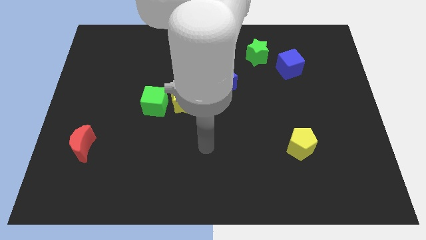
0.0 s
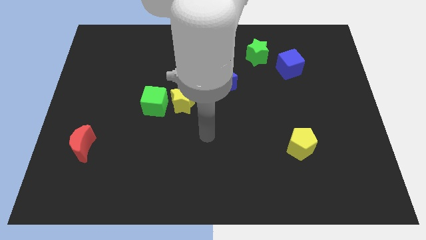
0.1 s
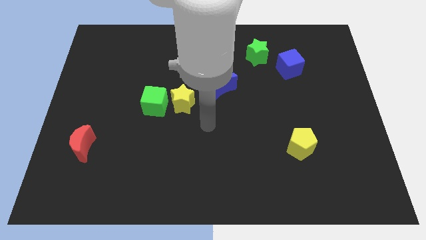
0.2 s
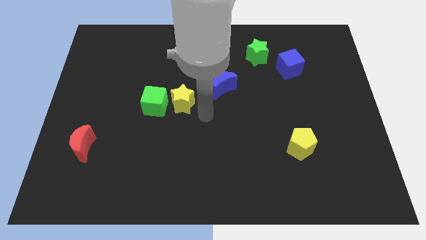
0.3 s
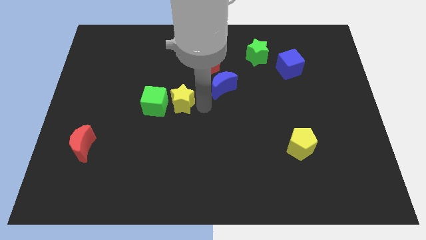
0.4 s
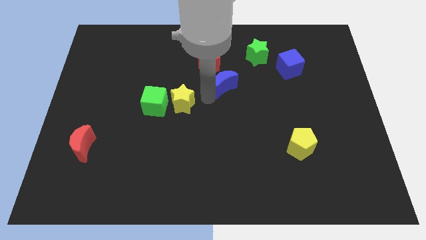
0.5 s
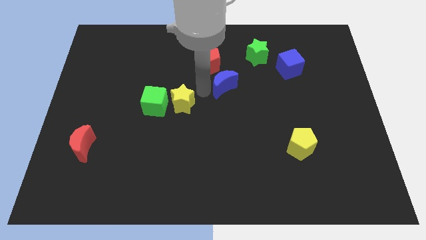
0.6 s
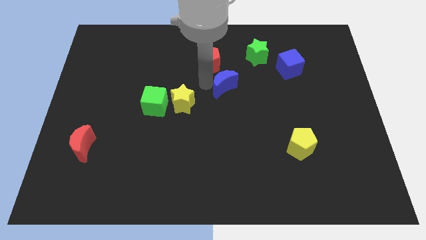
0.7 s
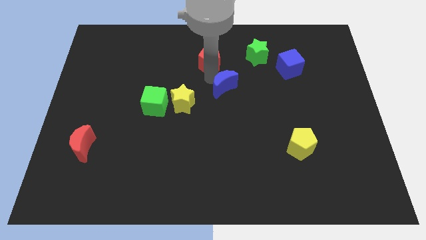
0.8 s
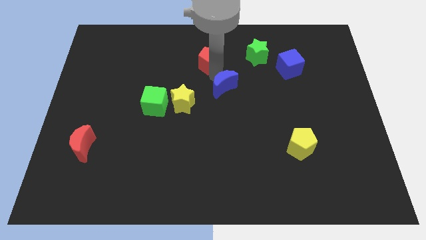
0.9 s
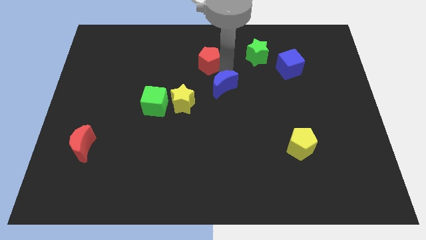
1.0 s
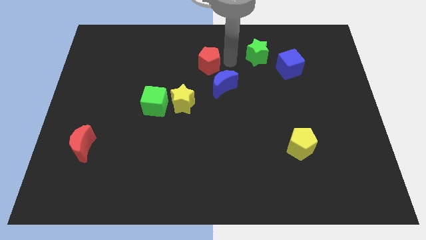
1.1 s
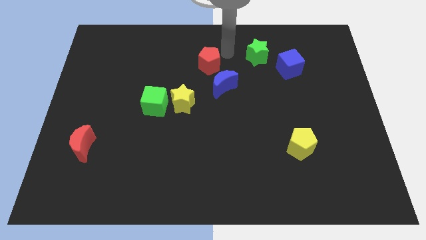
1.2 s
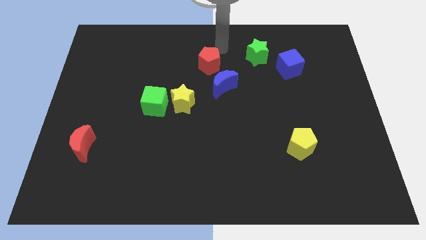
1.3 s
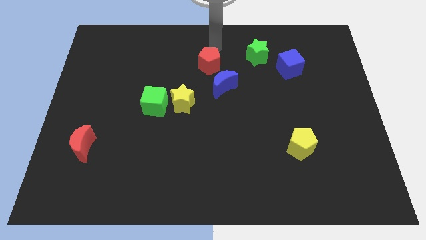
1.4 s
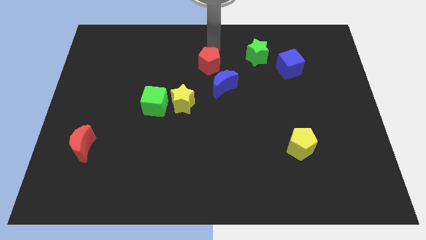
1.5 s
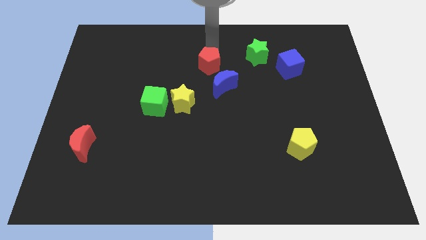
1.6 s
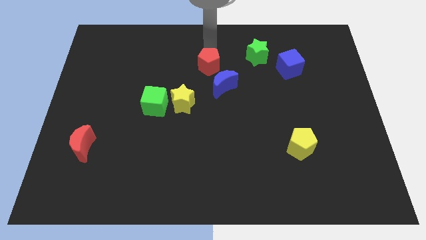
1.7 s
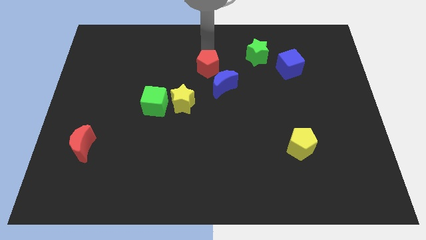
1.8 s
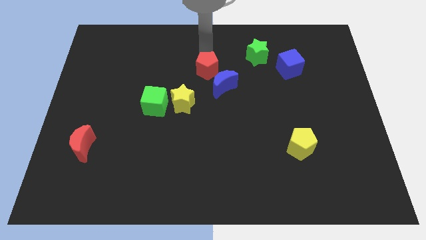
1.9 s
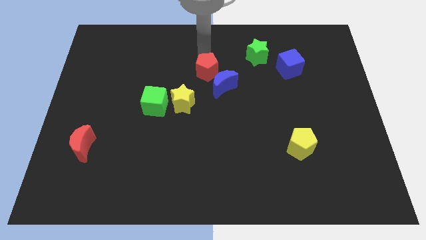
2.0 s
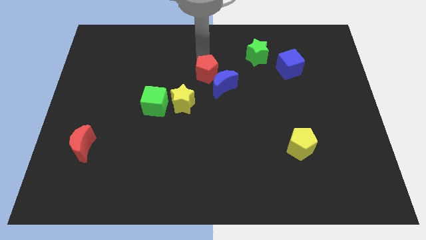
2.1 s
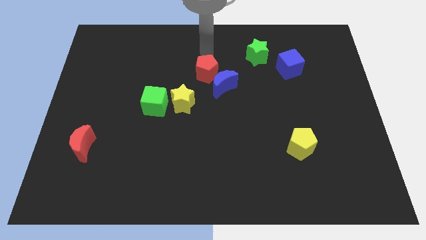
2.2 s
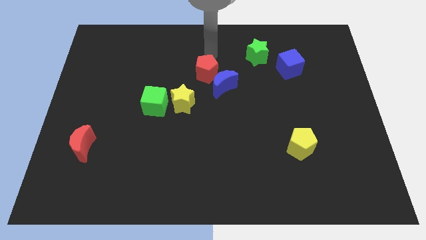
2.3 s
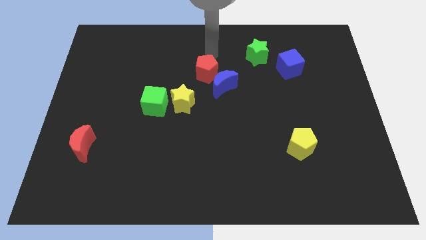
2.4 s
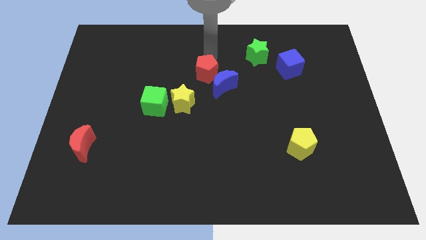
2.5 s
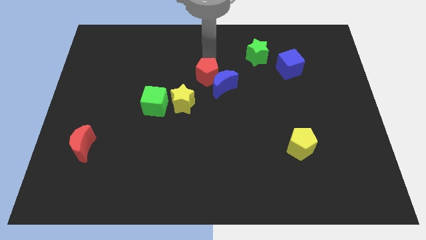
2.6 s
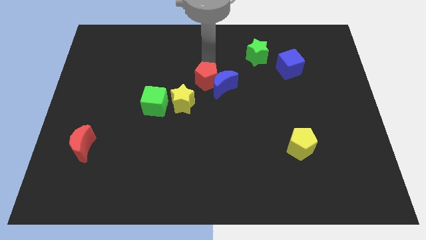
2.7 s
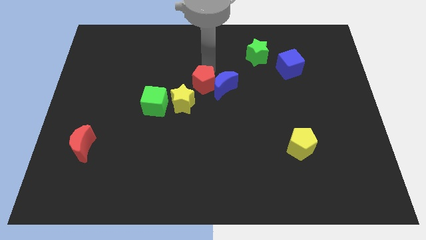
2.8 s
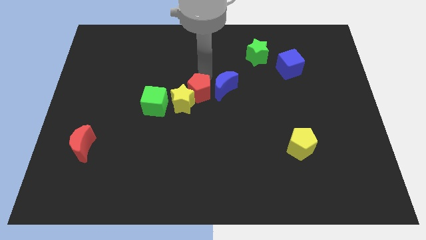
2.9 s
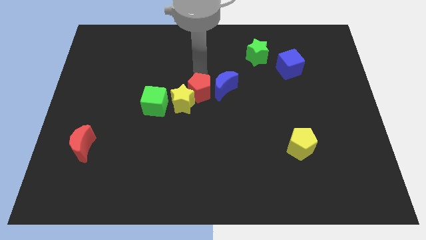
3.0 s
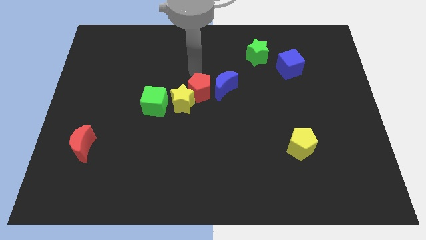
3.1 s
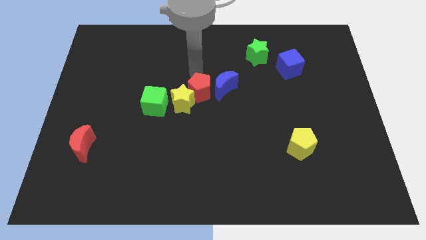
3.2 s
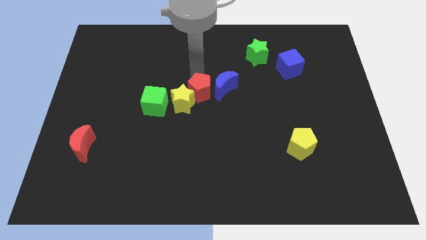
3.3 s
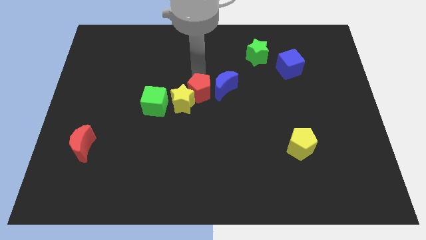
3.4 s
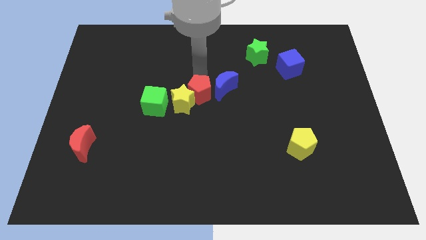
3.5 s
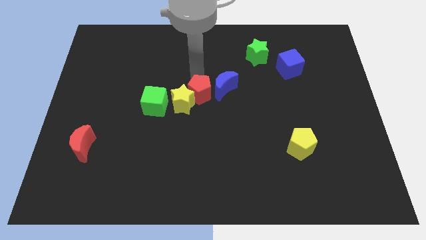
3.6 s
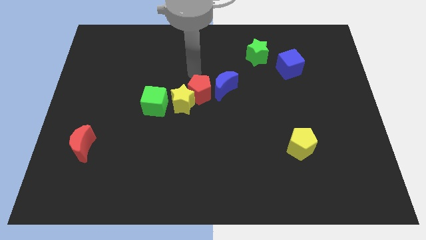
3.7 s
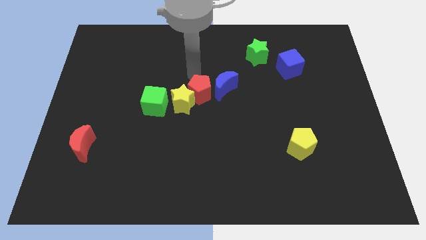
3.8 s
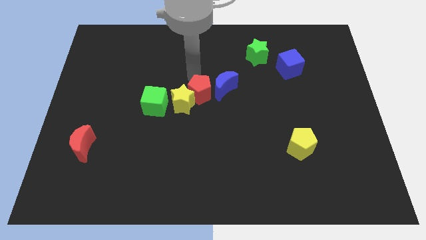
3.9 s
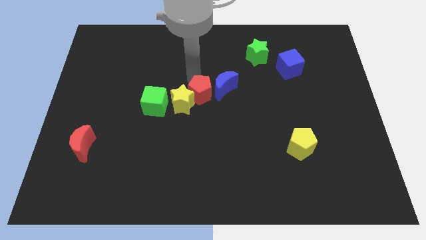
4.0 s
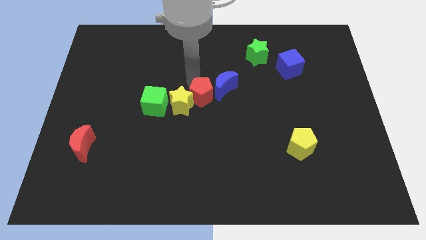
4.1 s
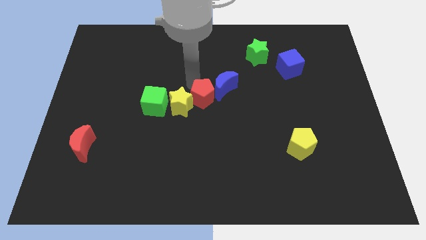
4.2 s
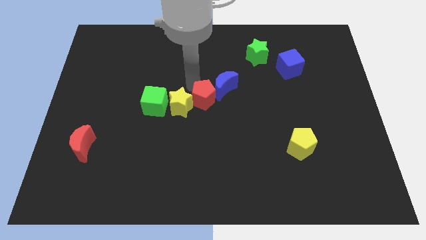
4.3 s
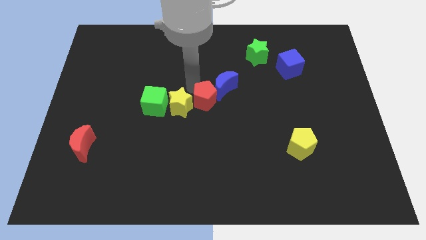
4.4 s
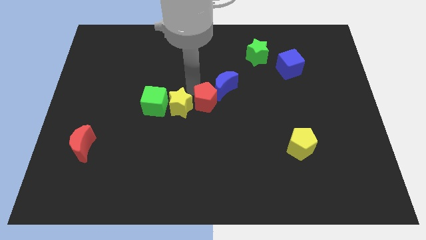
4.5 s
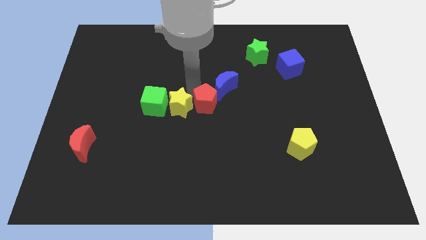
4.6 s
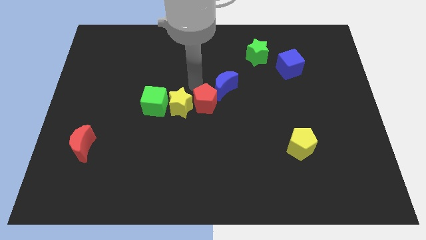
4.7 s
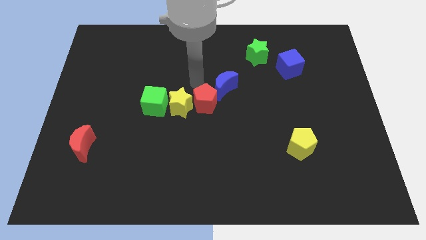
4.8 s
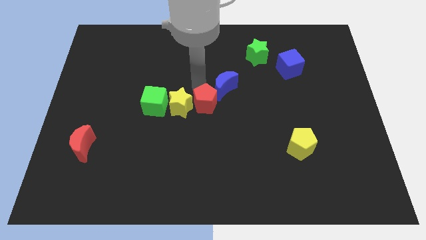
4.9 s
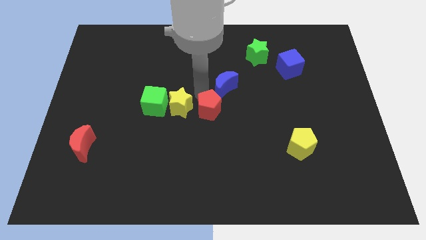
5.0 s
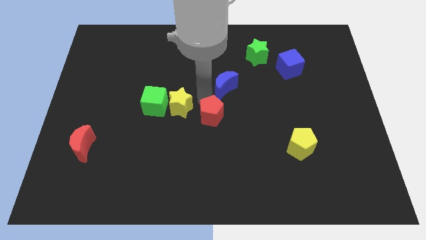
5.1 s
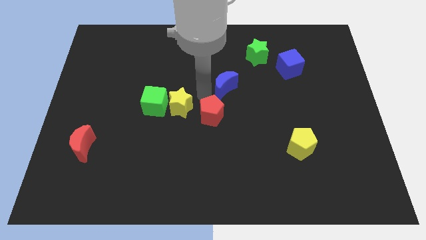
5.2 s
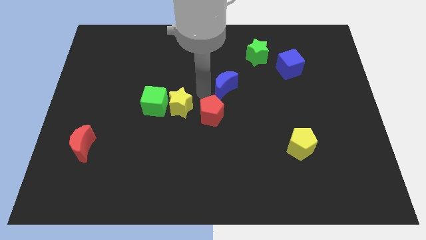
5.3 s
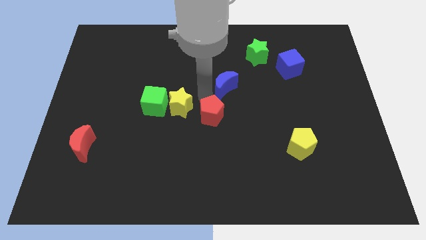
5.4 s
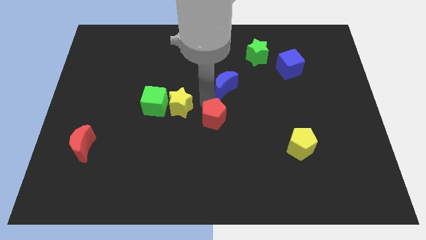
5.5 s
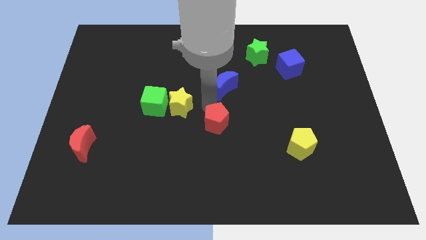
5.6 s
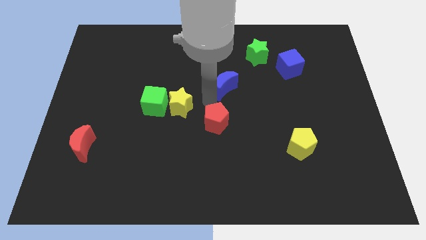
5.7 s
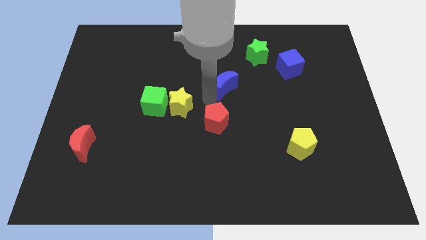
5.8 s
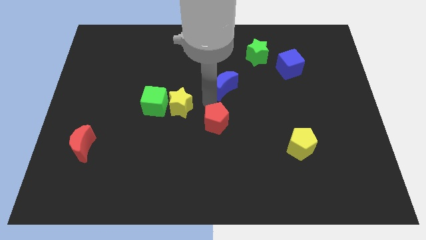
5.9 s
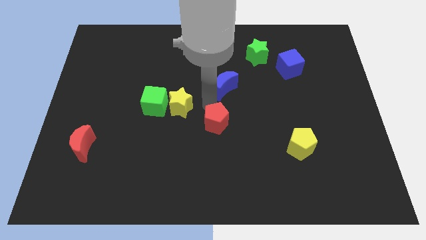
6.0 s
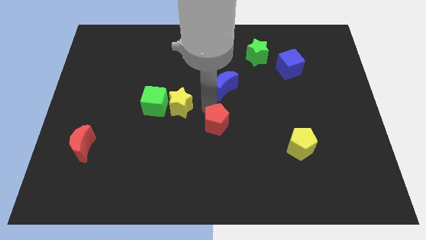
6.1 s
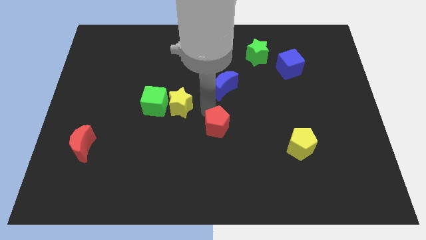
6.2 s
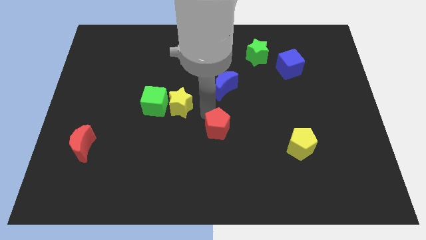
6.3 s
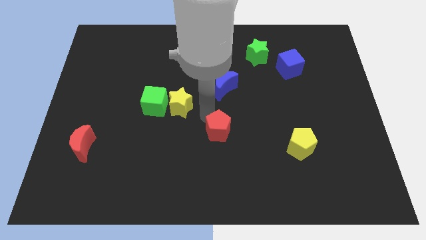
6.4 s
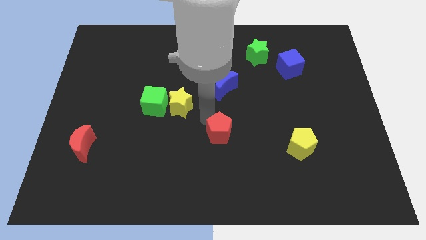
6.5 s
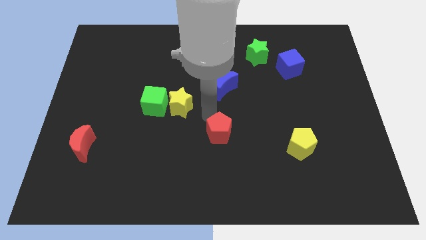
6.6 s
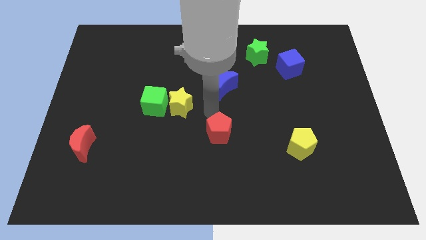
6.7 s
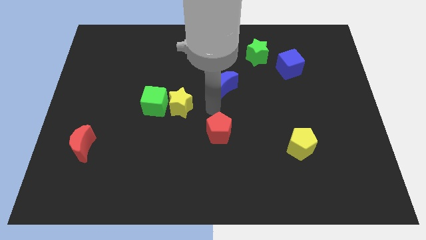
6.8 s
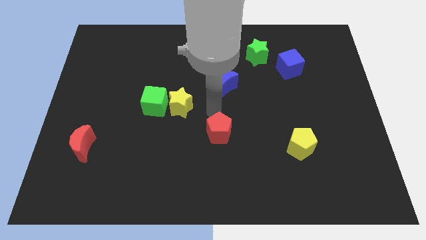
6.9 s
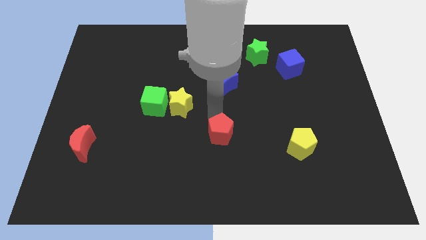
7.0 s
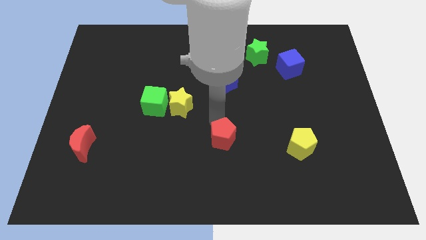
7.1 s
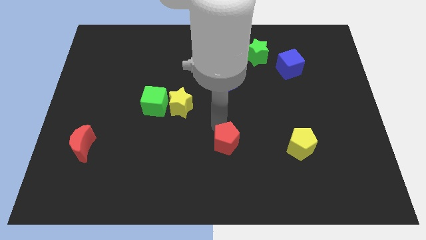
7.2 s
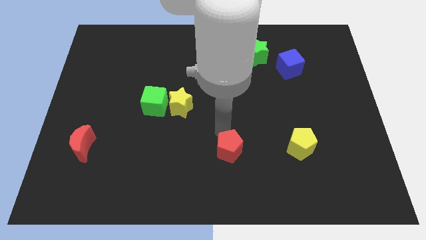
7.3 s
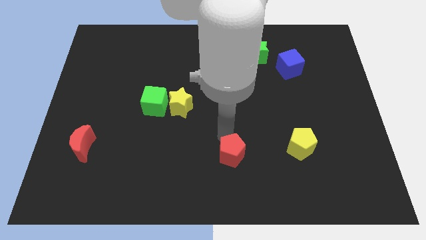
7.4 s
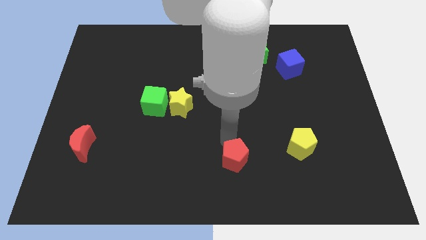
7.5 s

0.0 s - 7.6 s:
push the red pentagon to the bottom
